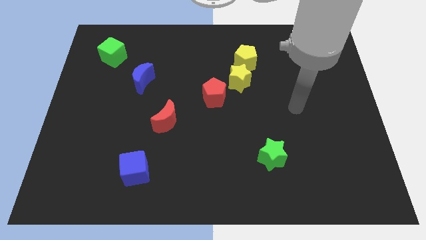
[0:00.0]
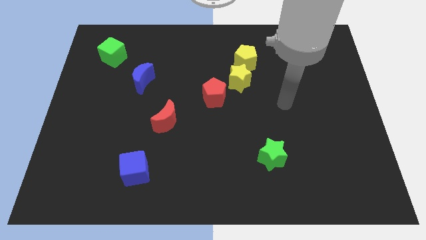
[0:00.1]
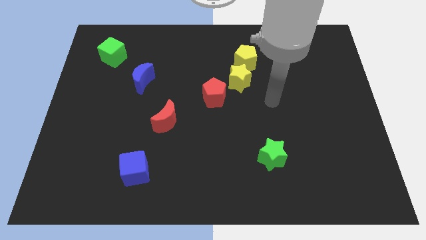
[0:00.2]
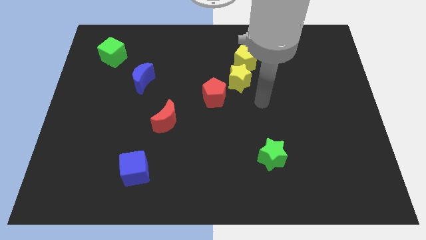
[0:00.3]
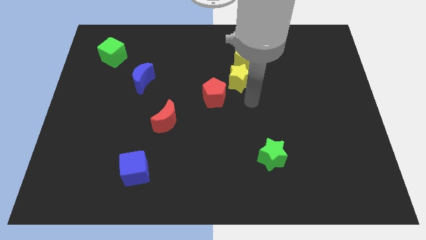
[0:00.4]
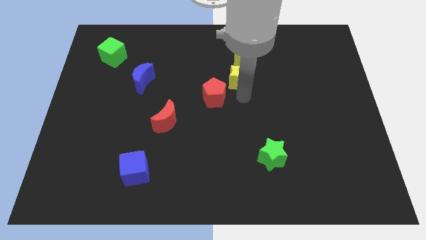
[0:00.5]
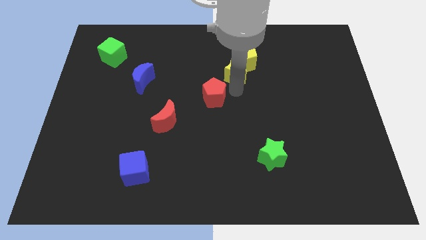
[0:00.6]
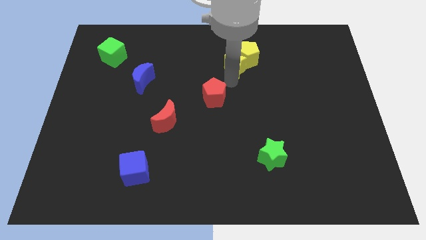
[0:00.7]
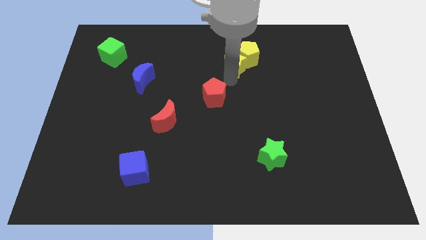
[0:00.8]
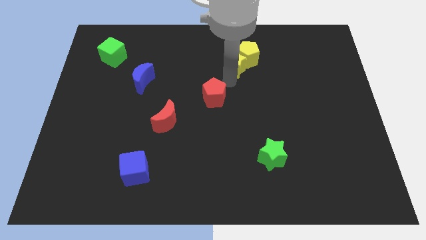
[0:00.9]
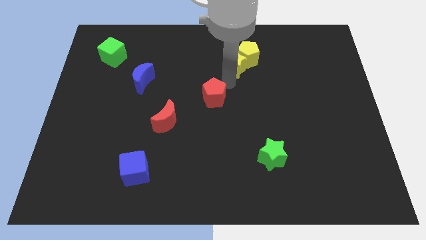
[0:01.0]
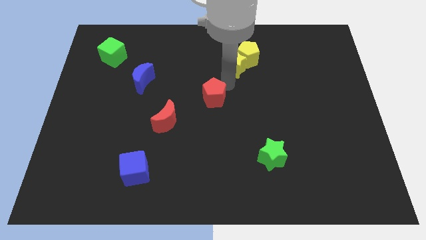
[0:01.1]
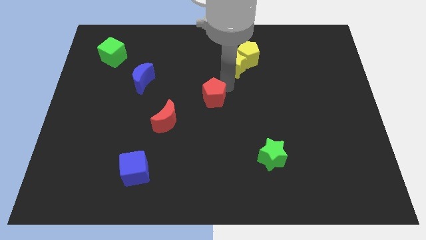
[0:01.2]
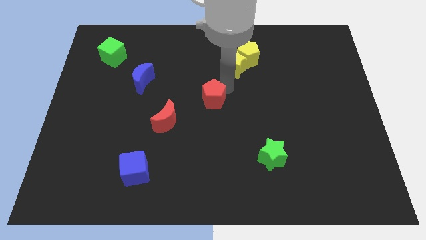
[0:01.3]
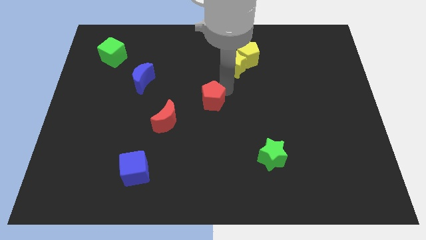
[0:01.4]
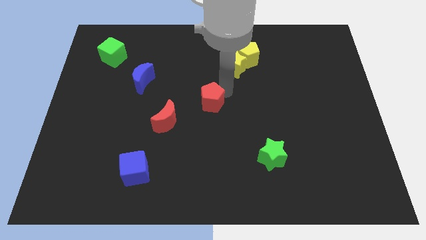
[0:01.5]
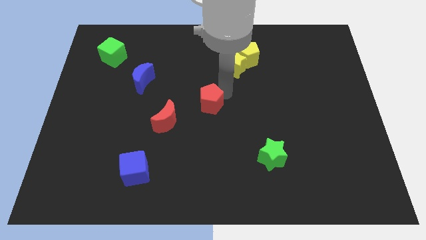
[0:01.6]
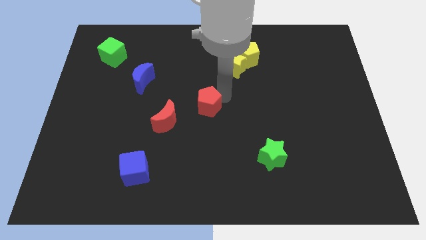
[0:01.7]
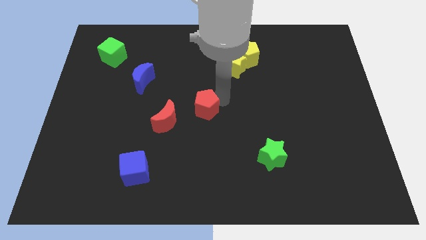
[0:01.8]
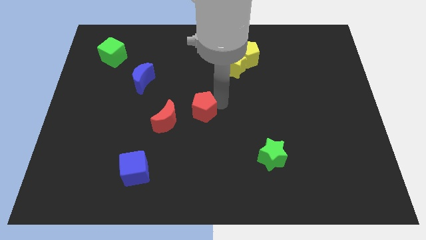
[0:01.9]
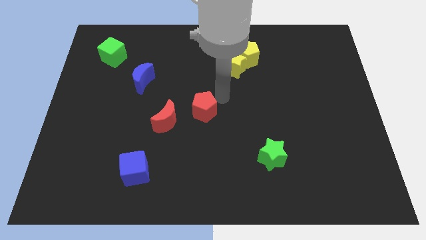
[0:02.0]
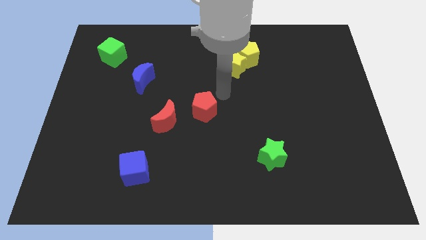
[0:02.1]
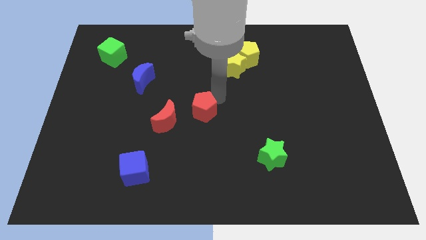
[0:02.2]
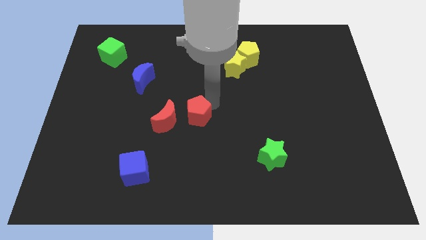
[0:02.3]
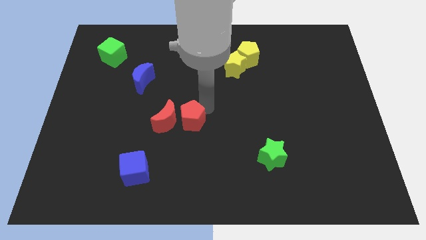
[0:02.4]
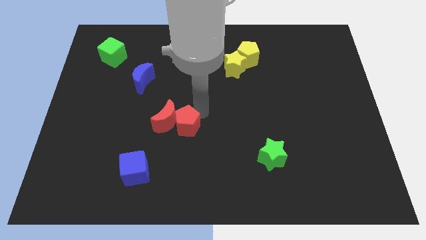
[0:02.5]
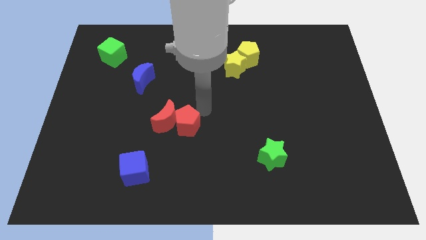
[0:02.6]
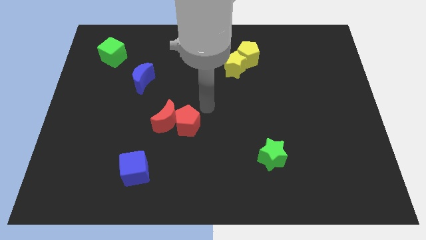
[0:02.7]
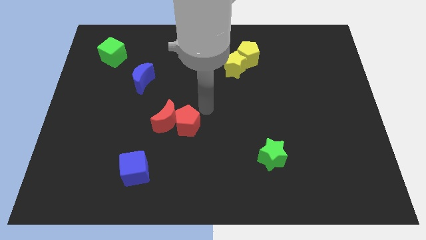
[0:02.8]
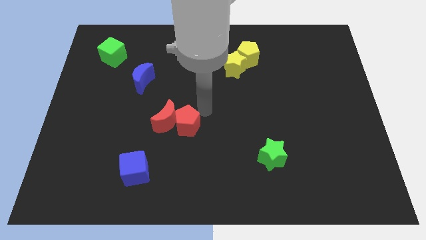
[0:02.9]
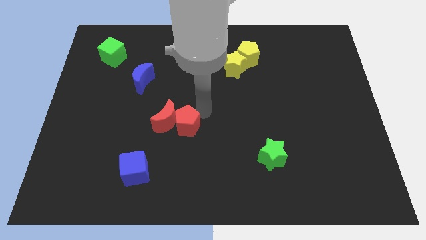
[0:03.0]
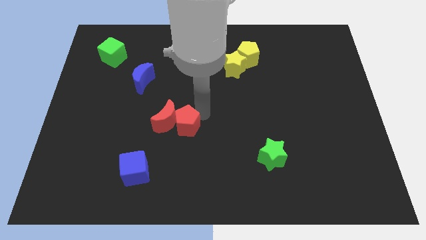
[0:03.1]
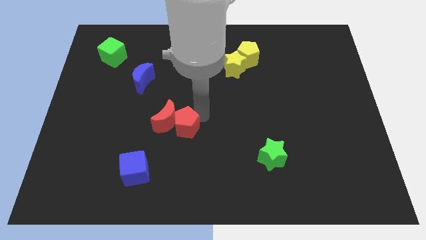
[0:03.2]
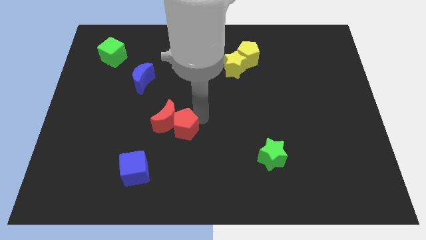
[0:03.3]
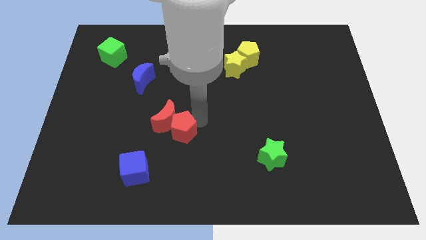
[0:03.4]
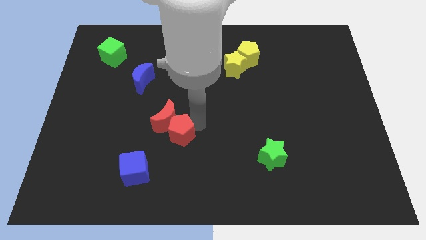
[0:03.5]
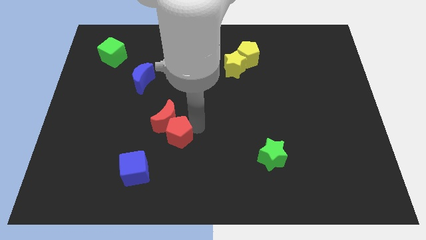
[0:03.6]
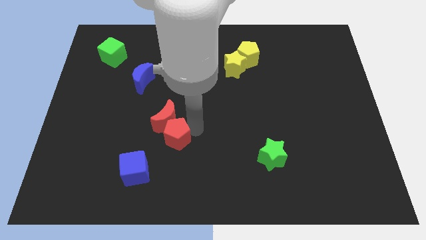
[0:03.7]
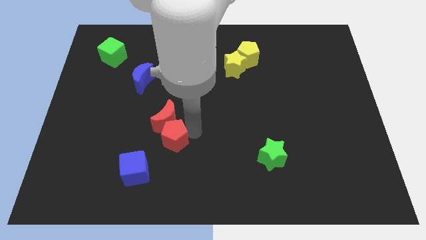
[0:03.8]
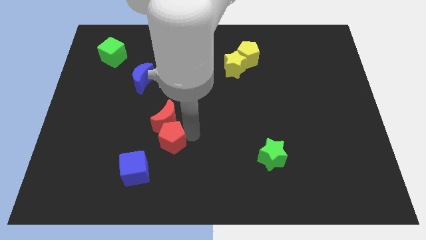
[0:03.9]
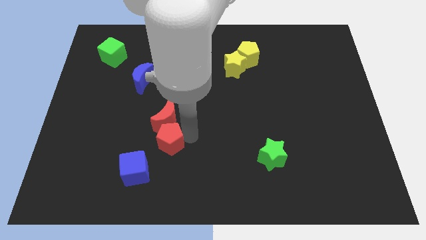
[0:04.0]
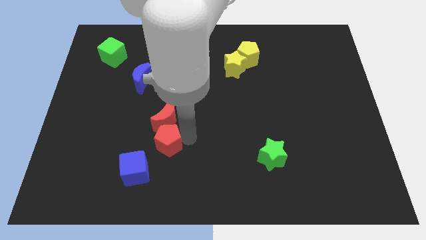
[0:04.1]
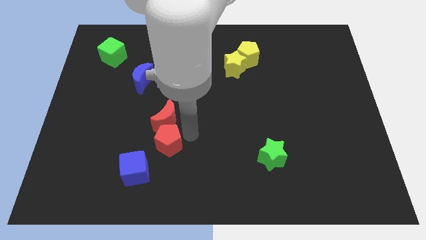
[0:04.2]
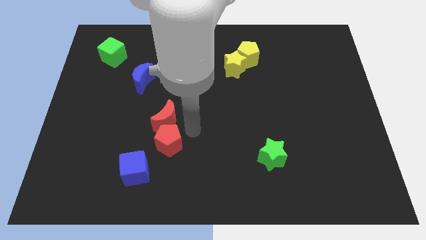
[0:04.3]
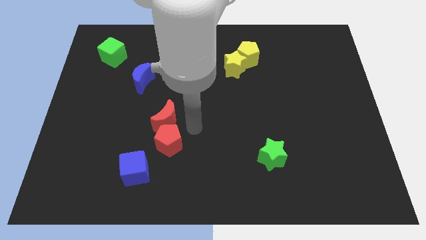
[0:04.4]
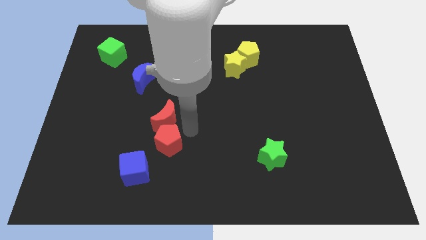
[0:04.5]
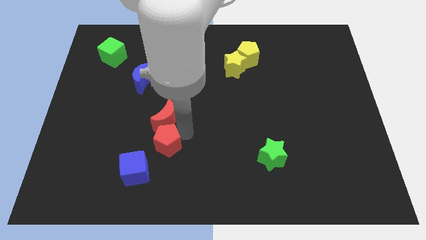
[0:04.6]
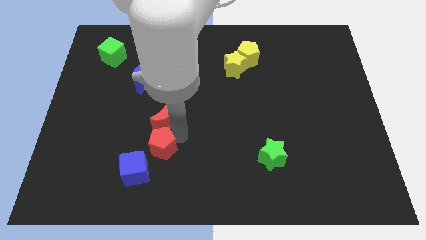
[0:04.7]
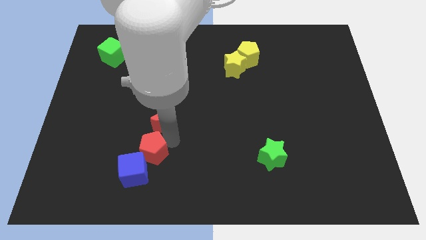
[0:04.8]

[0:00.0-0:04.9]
put the red pentagon next to the blue cube

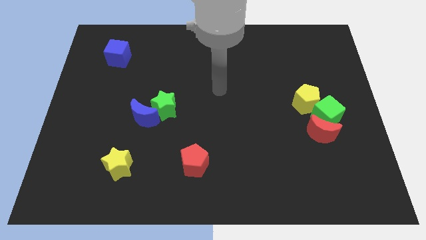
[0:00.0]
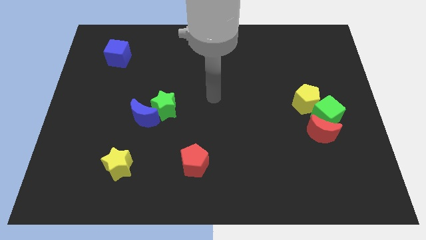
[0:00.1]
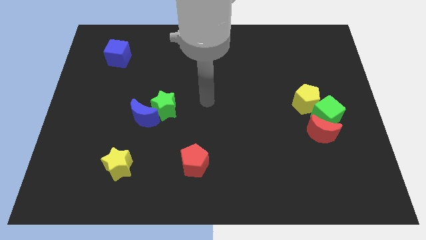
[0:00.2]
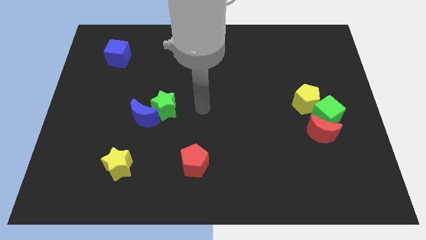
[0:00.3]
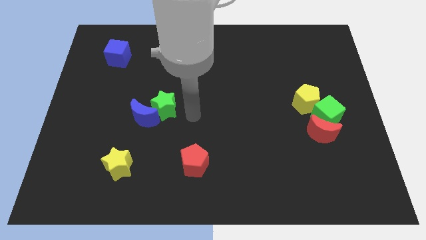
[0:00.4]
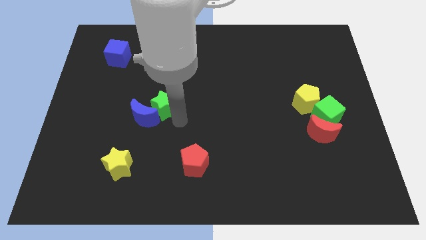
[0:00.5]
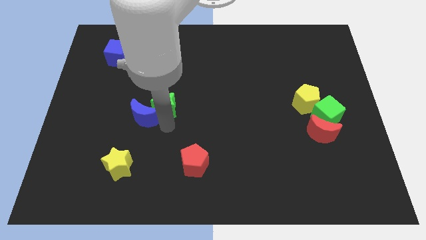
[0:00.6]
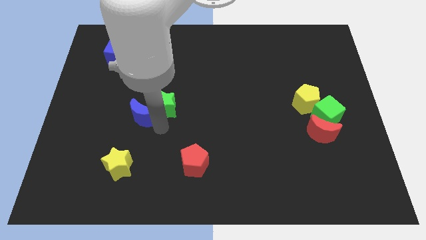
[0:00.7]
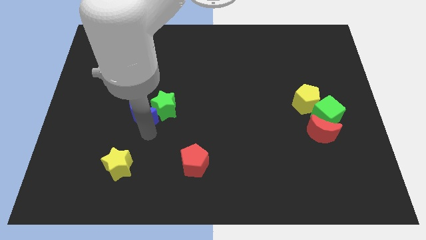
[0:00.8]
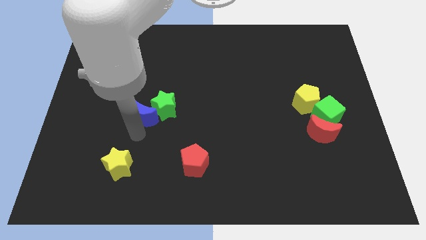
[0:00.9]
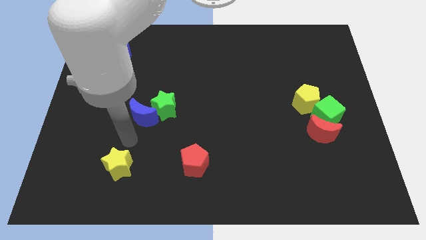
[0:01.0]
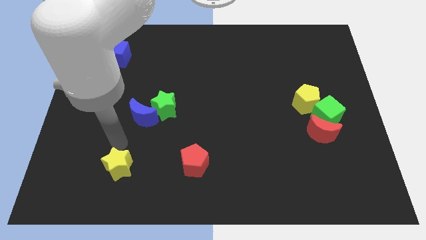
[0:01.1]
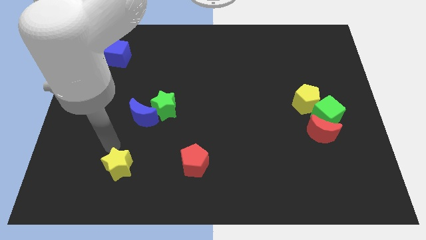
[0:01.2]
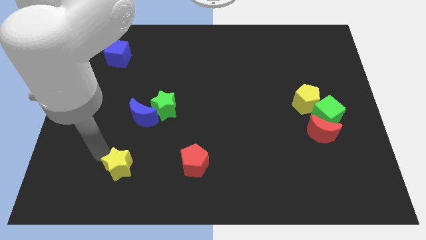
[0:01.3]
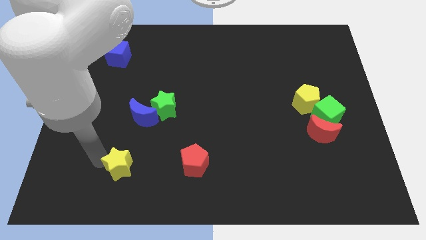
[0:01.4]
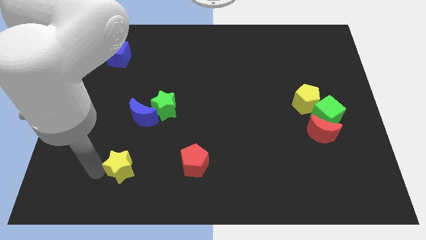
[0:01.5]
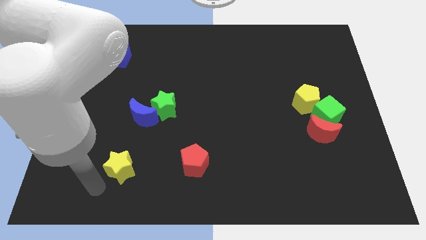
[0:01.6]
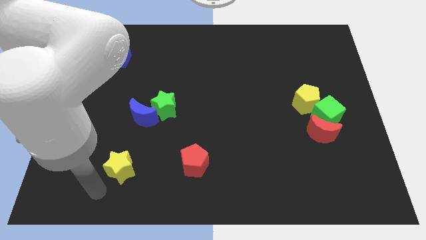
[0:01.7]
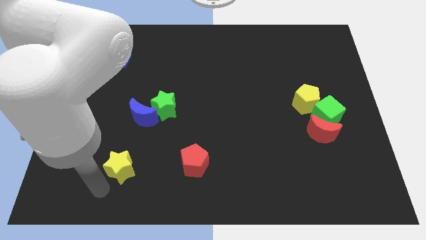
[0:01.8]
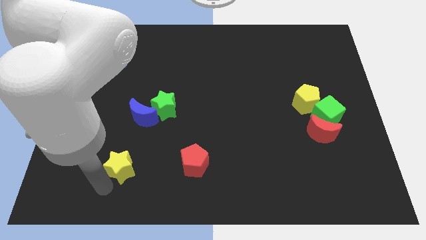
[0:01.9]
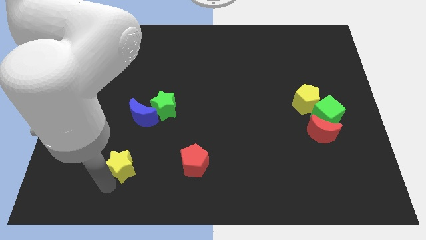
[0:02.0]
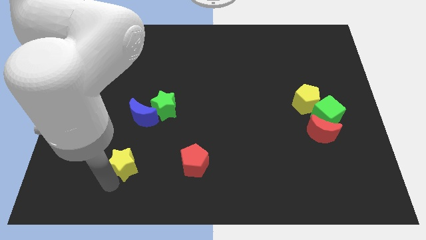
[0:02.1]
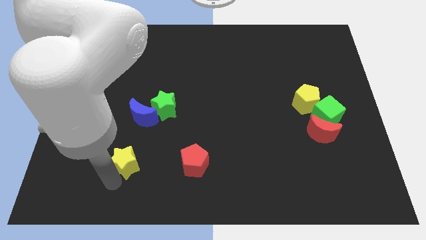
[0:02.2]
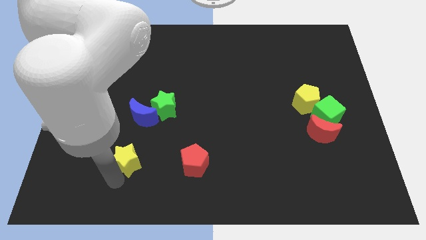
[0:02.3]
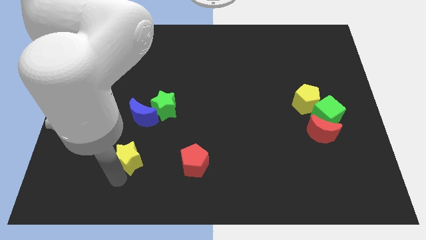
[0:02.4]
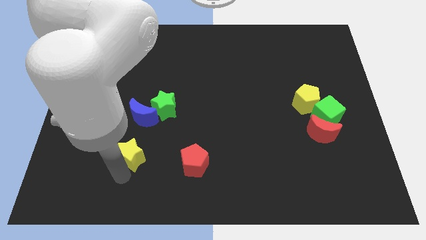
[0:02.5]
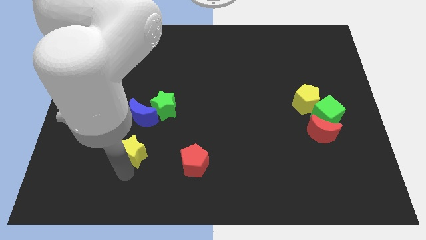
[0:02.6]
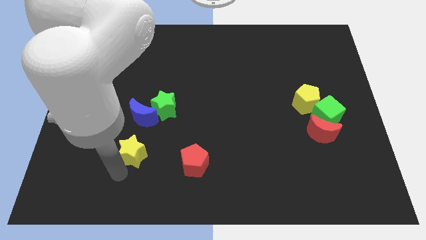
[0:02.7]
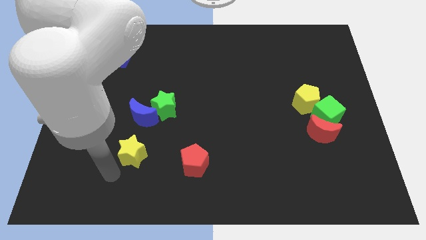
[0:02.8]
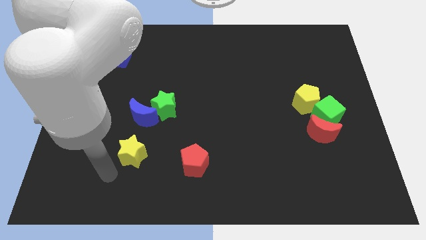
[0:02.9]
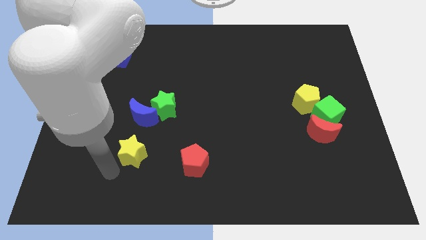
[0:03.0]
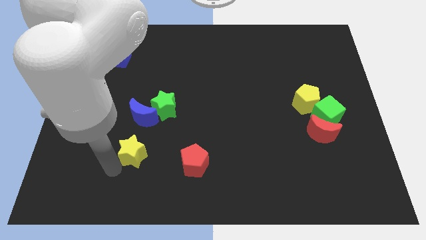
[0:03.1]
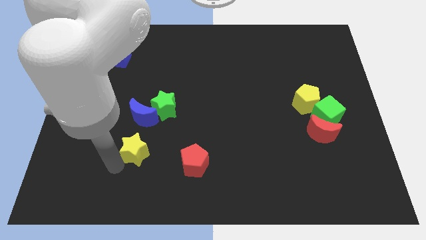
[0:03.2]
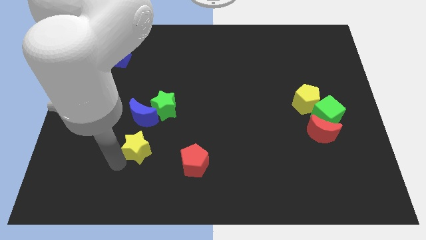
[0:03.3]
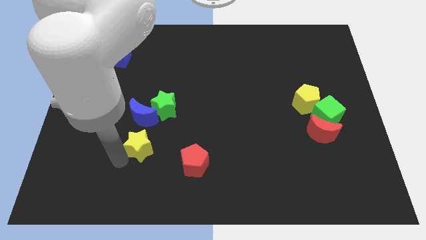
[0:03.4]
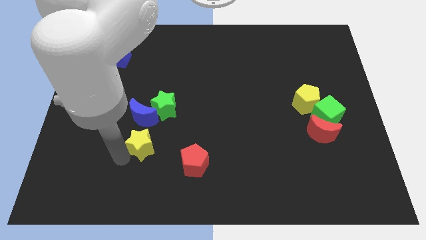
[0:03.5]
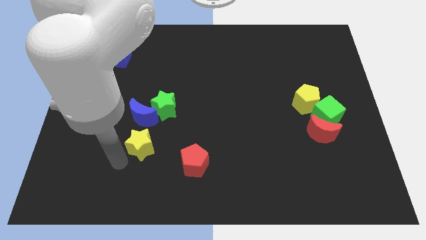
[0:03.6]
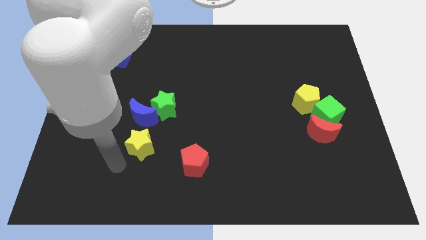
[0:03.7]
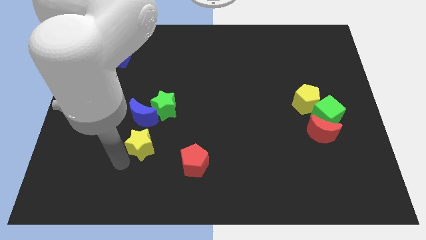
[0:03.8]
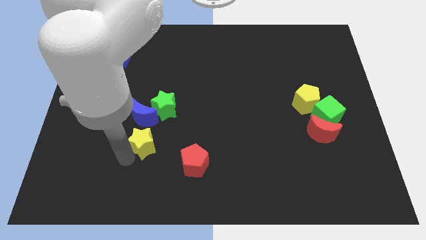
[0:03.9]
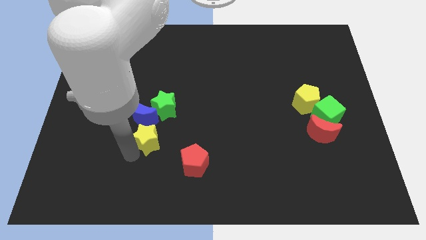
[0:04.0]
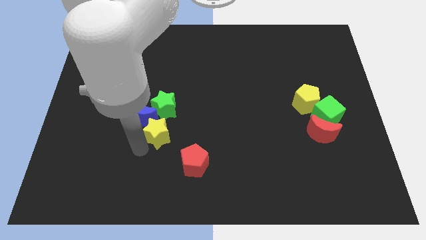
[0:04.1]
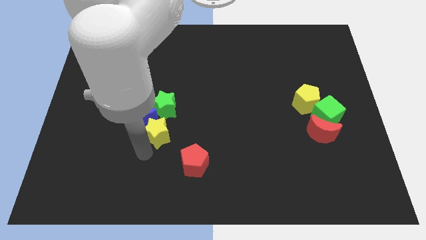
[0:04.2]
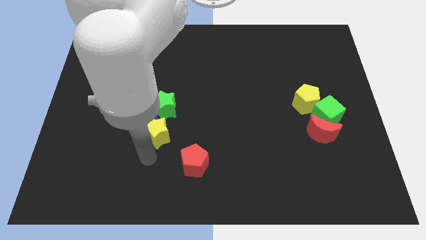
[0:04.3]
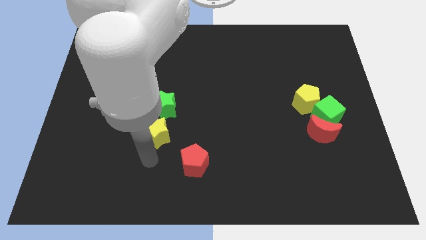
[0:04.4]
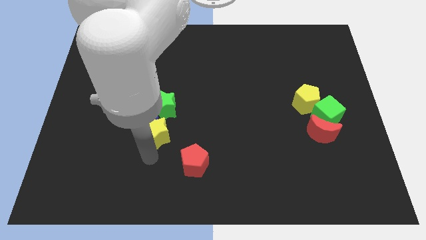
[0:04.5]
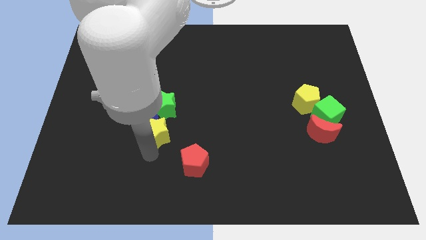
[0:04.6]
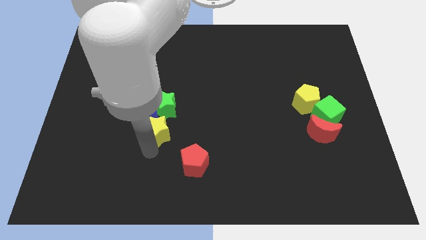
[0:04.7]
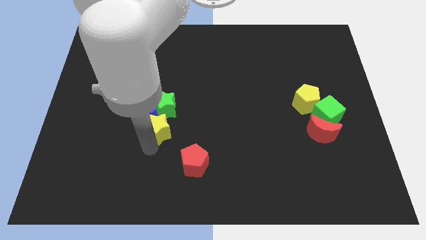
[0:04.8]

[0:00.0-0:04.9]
push the yellow star towards the green star
